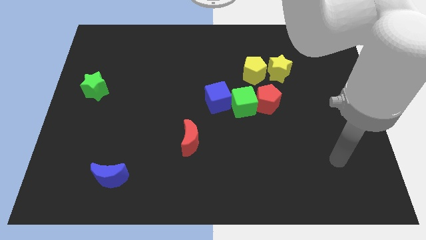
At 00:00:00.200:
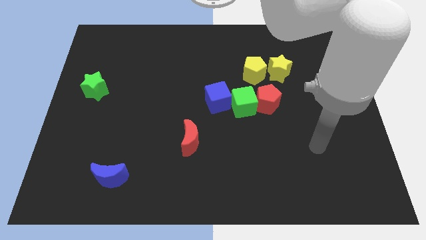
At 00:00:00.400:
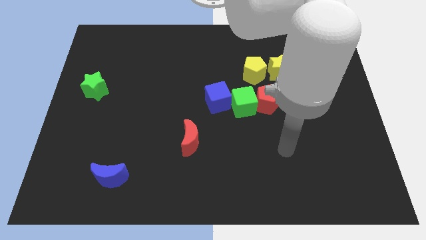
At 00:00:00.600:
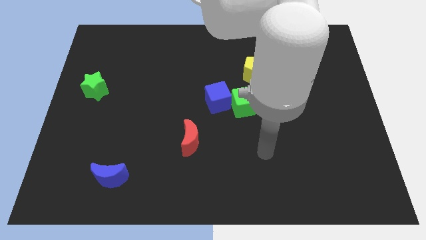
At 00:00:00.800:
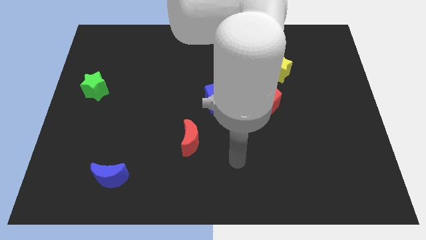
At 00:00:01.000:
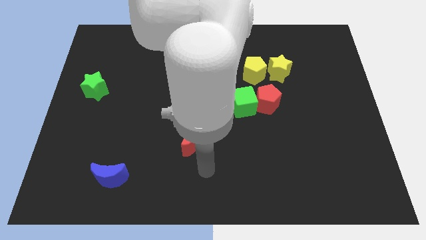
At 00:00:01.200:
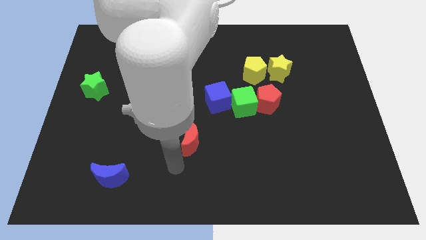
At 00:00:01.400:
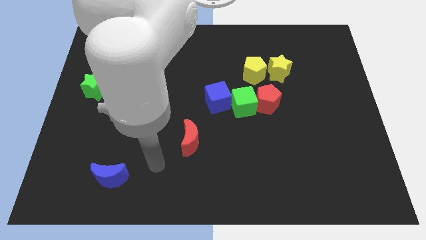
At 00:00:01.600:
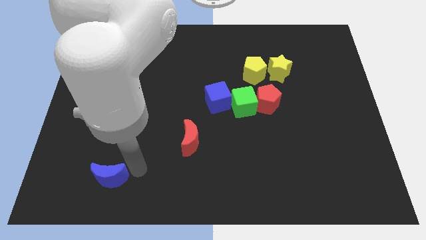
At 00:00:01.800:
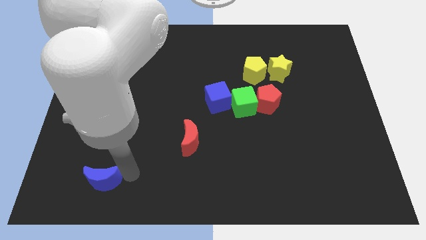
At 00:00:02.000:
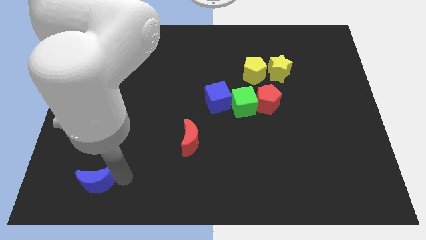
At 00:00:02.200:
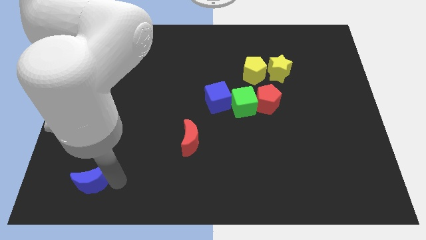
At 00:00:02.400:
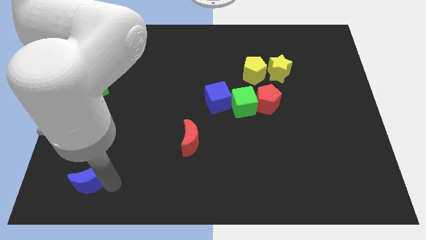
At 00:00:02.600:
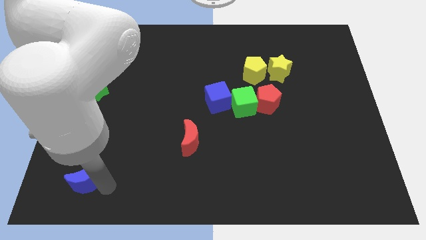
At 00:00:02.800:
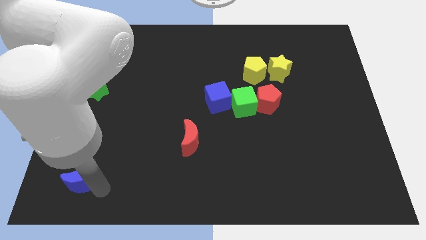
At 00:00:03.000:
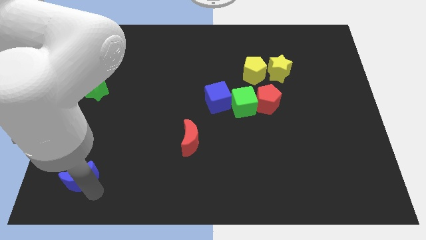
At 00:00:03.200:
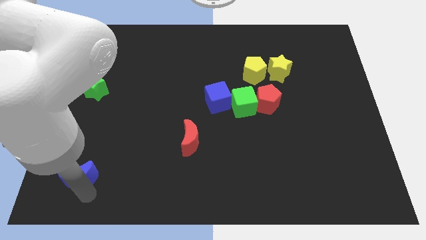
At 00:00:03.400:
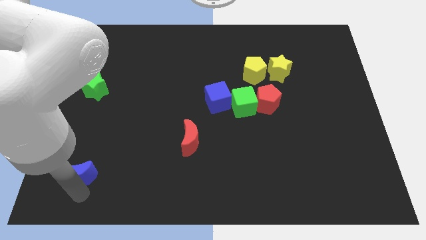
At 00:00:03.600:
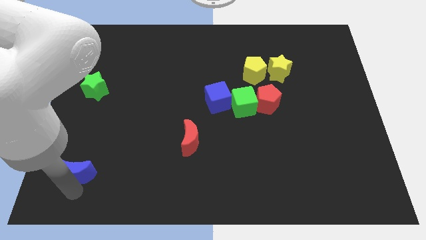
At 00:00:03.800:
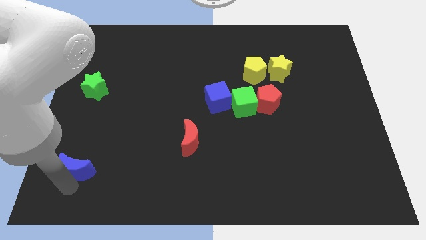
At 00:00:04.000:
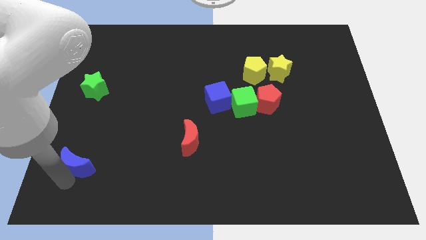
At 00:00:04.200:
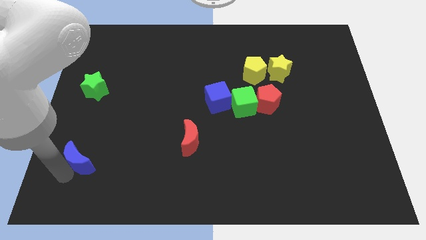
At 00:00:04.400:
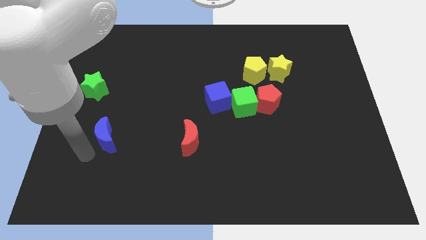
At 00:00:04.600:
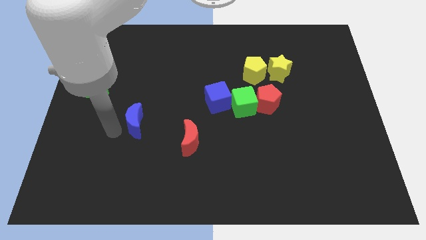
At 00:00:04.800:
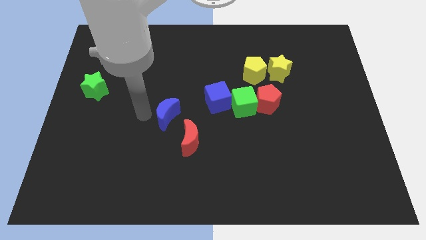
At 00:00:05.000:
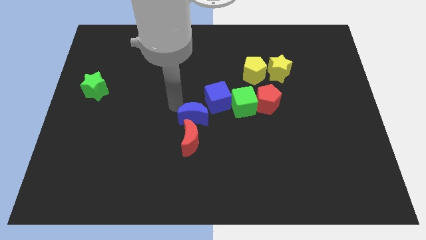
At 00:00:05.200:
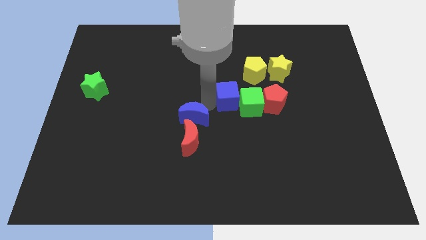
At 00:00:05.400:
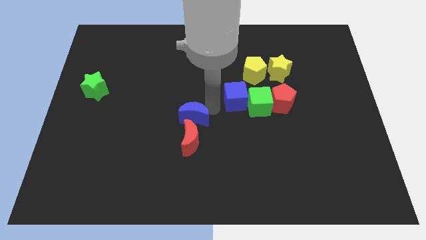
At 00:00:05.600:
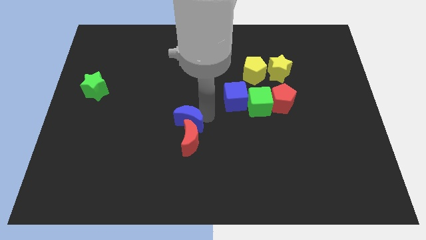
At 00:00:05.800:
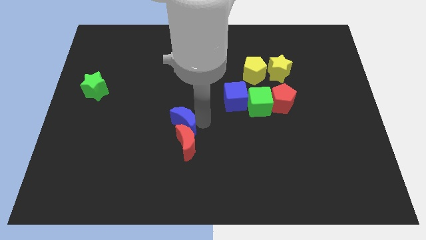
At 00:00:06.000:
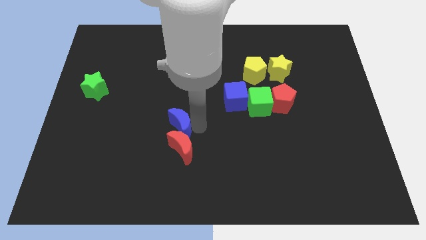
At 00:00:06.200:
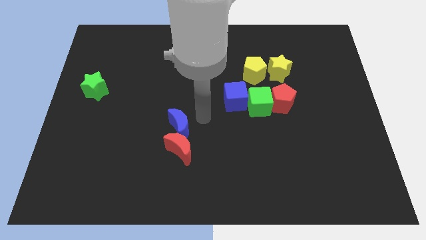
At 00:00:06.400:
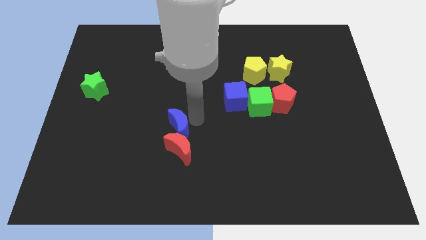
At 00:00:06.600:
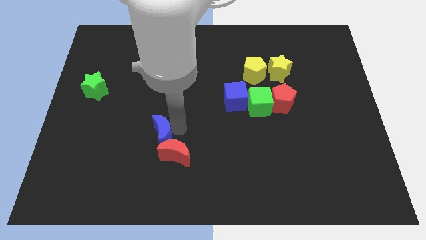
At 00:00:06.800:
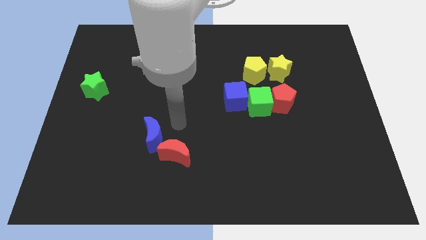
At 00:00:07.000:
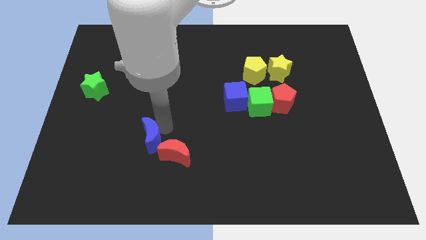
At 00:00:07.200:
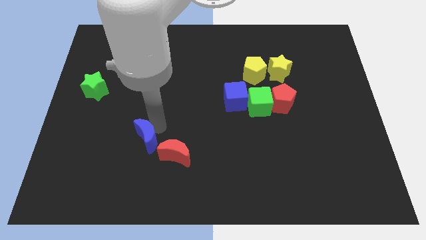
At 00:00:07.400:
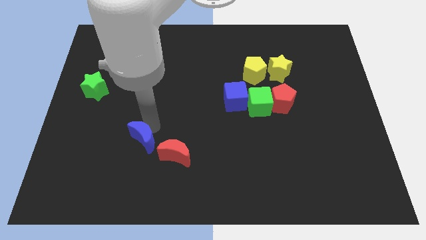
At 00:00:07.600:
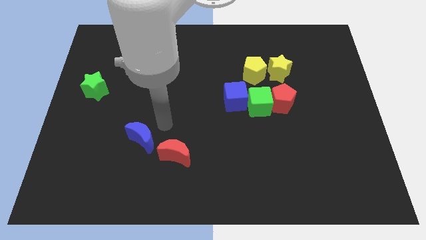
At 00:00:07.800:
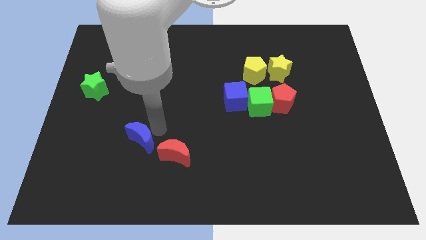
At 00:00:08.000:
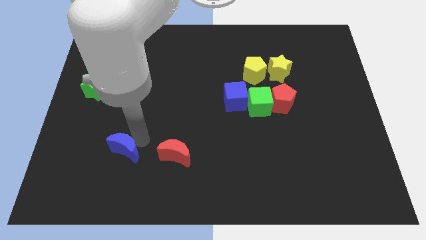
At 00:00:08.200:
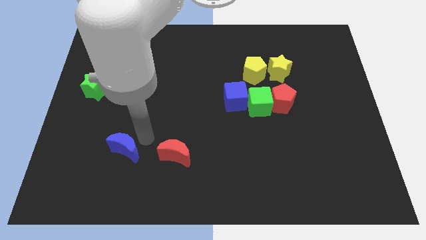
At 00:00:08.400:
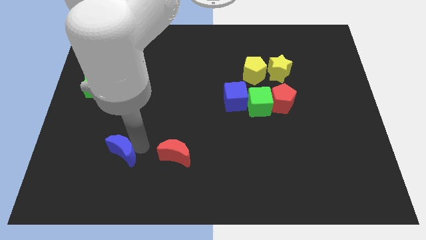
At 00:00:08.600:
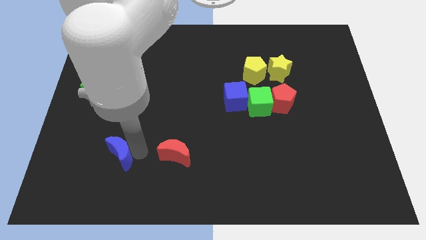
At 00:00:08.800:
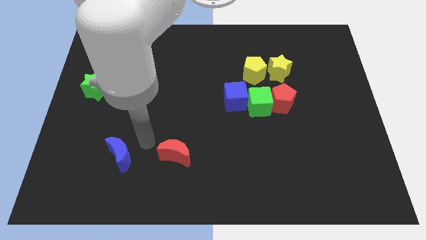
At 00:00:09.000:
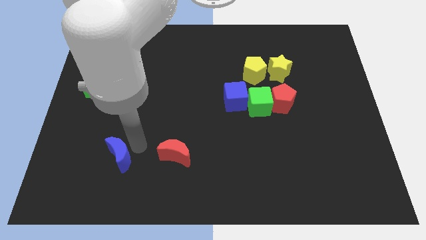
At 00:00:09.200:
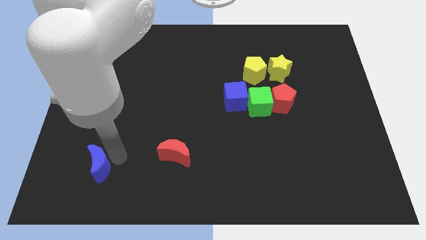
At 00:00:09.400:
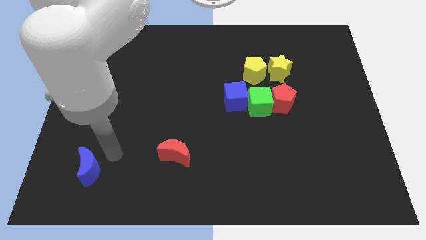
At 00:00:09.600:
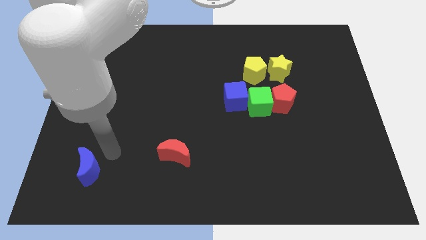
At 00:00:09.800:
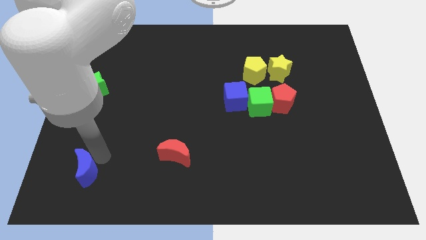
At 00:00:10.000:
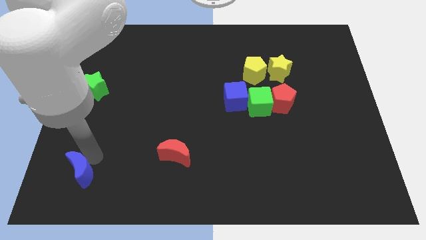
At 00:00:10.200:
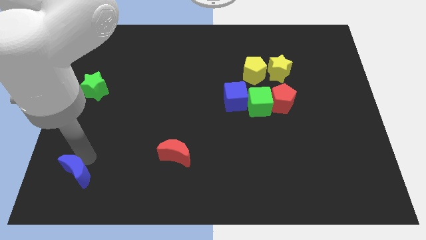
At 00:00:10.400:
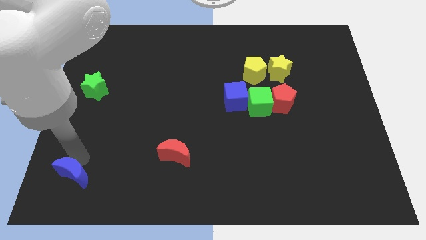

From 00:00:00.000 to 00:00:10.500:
move the blue moon to the bottom left corner

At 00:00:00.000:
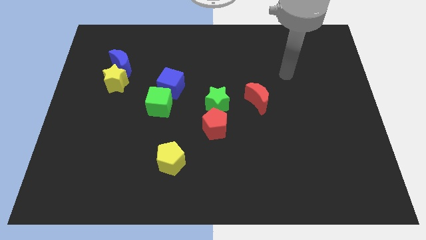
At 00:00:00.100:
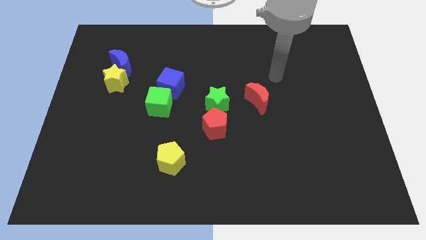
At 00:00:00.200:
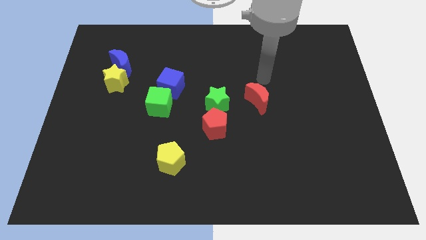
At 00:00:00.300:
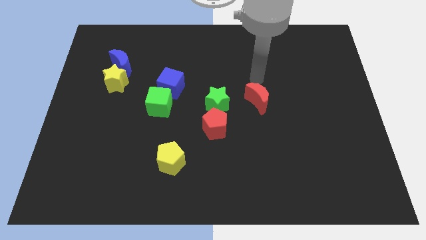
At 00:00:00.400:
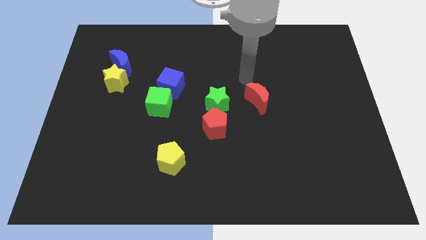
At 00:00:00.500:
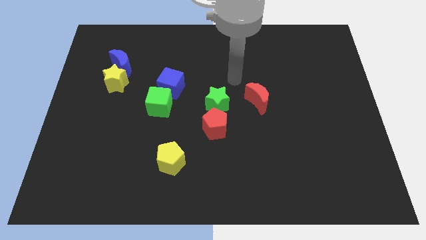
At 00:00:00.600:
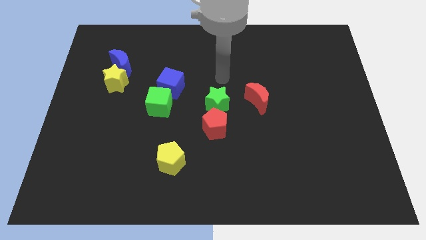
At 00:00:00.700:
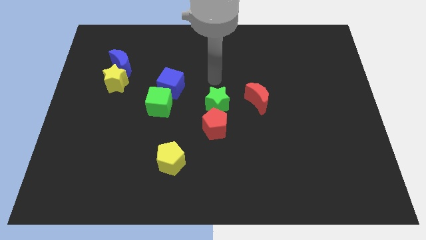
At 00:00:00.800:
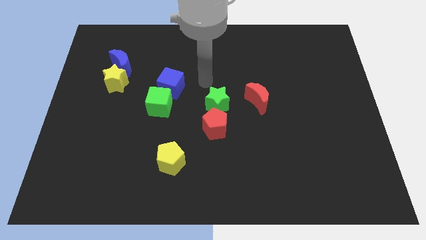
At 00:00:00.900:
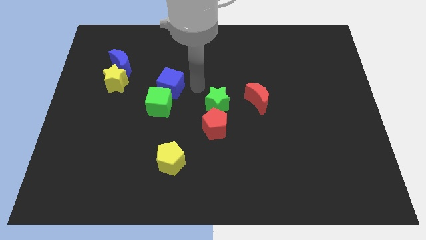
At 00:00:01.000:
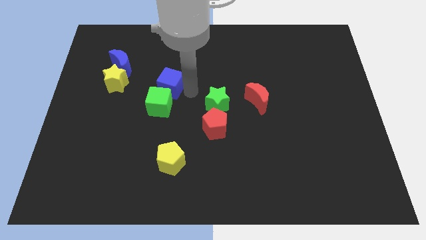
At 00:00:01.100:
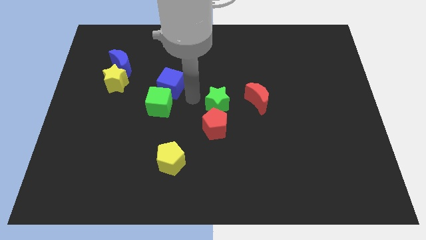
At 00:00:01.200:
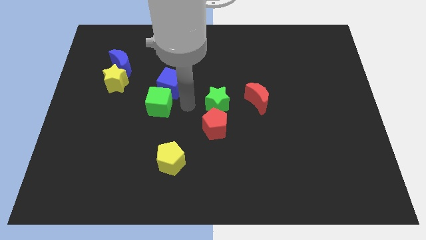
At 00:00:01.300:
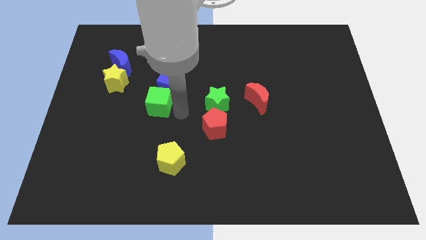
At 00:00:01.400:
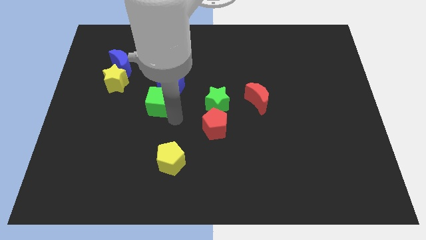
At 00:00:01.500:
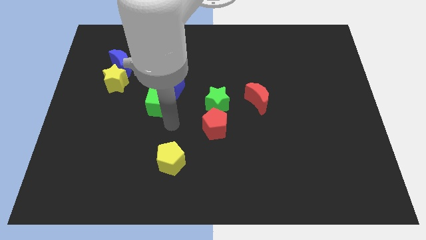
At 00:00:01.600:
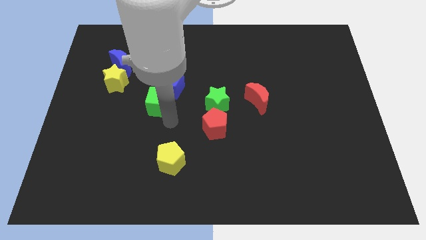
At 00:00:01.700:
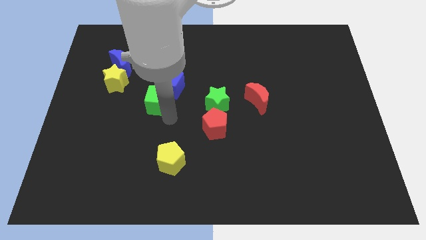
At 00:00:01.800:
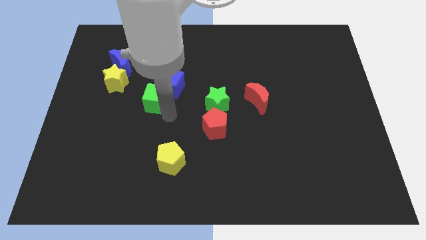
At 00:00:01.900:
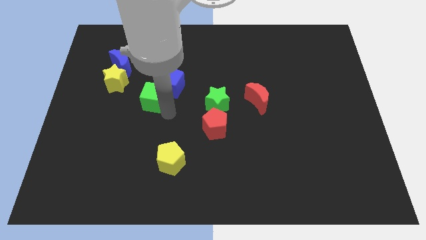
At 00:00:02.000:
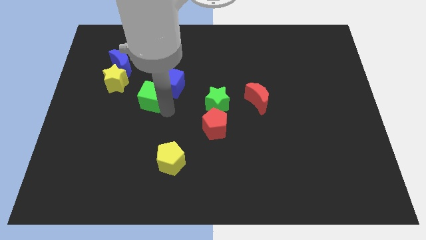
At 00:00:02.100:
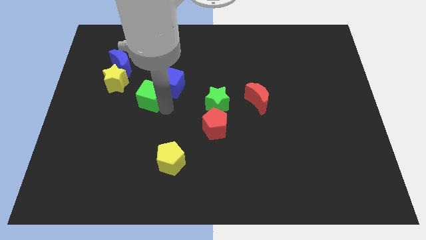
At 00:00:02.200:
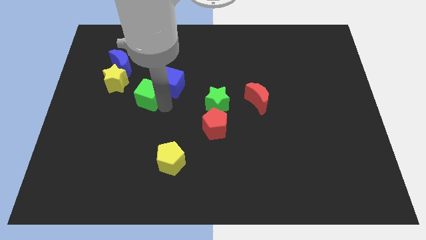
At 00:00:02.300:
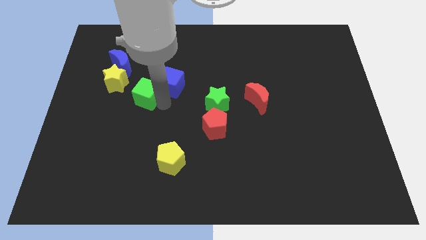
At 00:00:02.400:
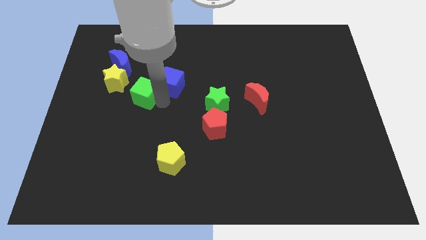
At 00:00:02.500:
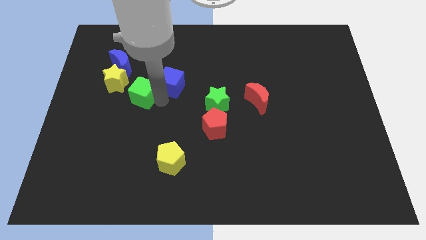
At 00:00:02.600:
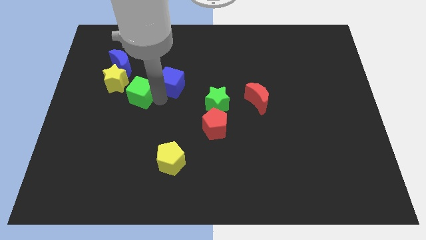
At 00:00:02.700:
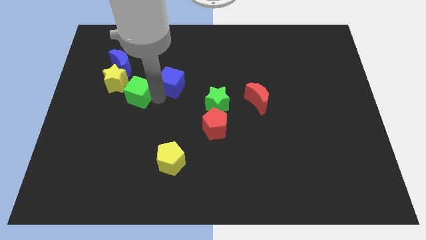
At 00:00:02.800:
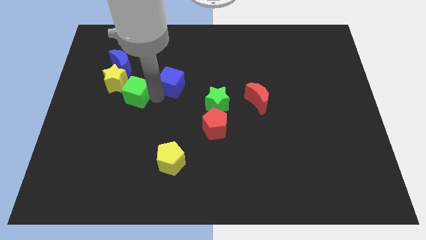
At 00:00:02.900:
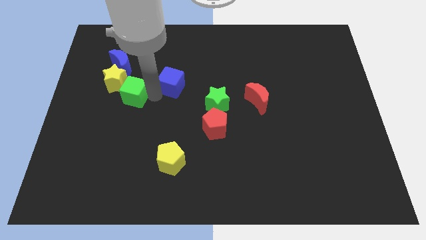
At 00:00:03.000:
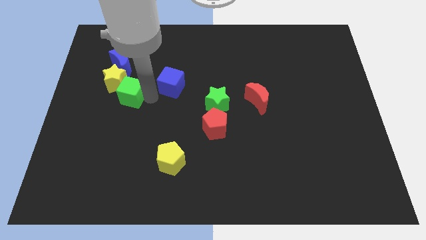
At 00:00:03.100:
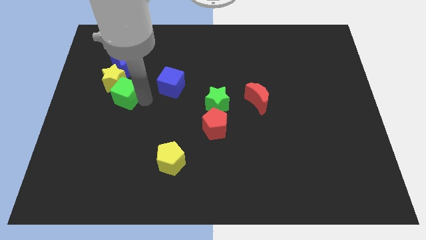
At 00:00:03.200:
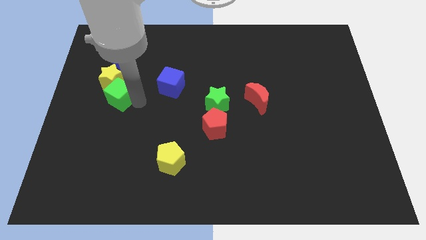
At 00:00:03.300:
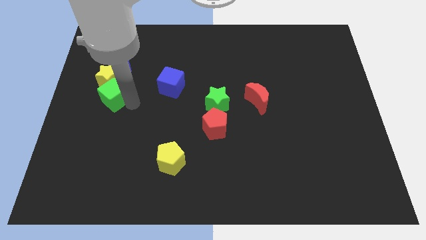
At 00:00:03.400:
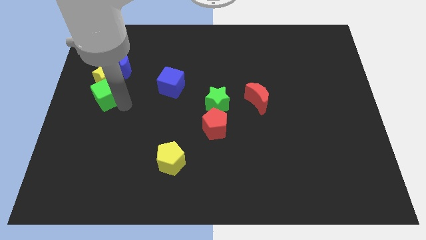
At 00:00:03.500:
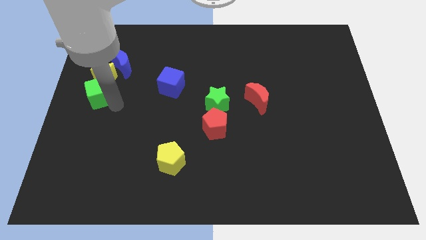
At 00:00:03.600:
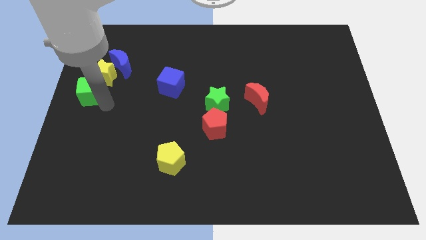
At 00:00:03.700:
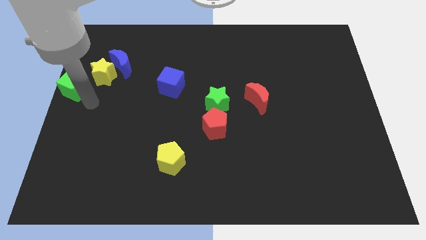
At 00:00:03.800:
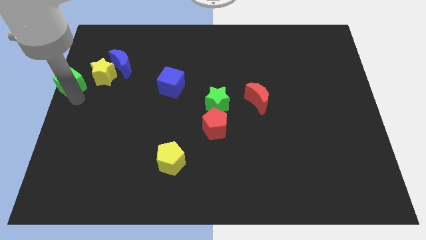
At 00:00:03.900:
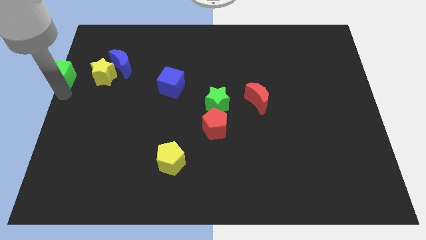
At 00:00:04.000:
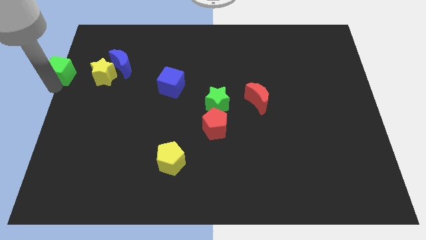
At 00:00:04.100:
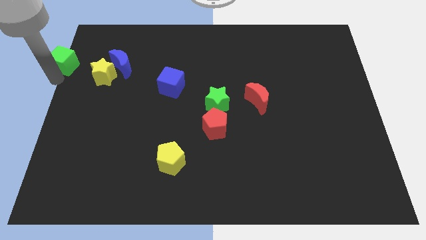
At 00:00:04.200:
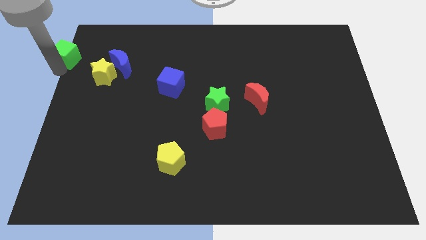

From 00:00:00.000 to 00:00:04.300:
slide the green cube to the top left
